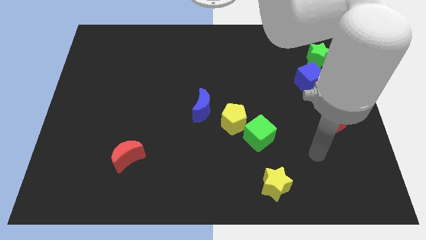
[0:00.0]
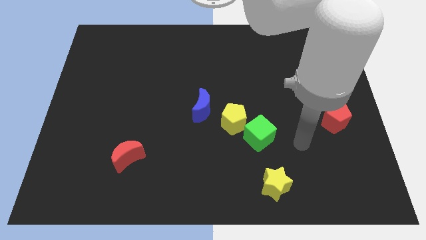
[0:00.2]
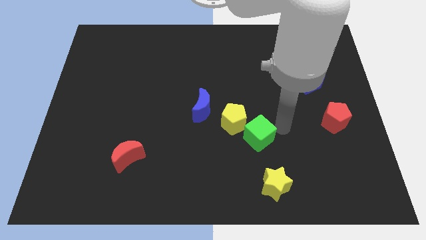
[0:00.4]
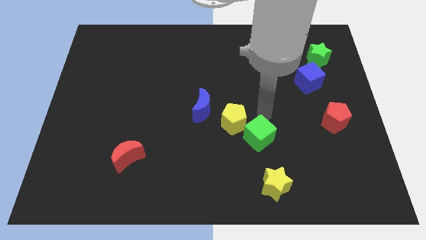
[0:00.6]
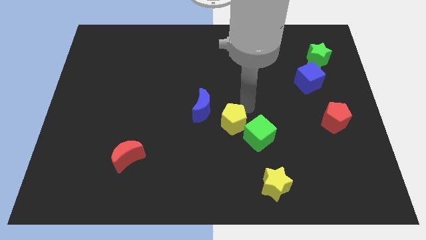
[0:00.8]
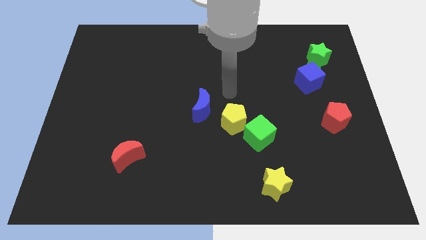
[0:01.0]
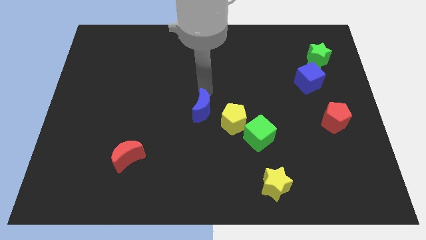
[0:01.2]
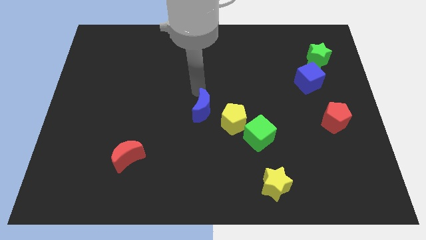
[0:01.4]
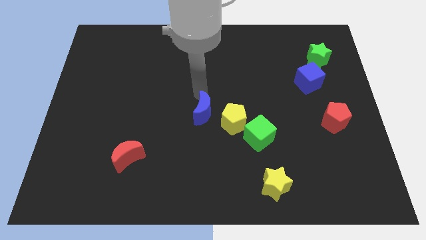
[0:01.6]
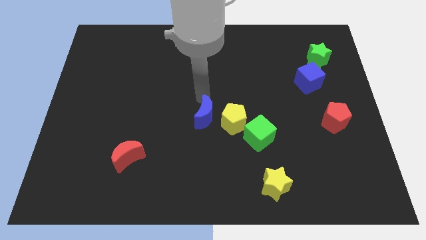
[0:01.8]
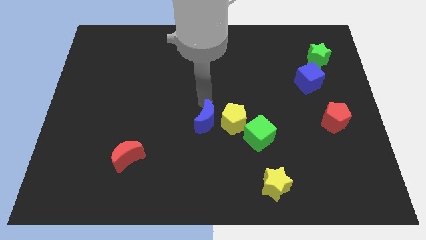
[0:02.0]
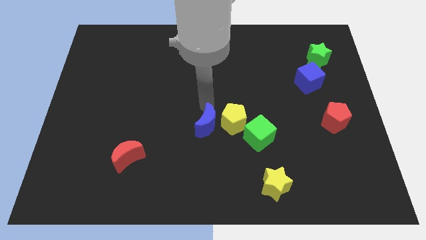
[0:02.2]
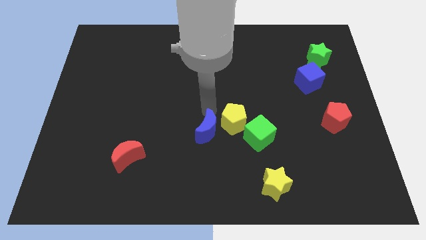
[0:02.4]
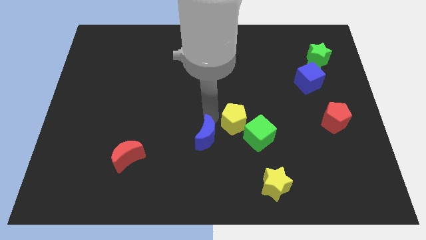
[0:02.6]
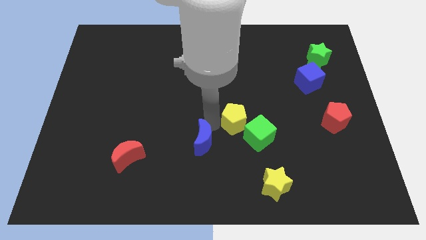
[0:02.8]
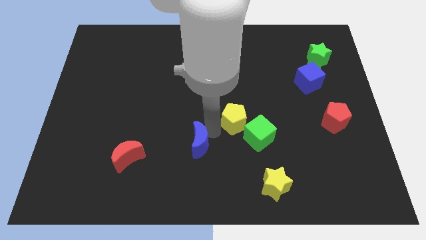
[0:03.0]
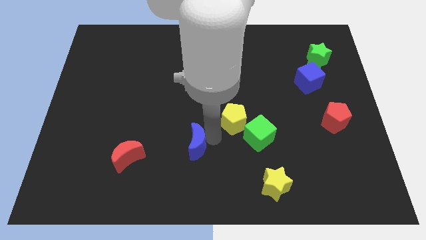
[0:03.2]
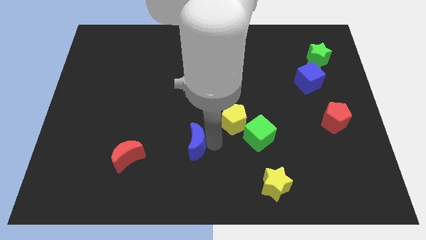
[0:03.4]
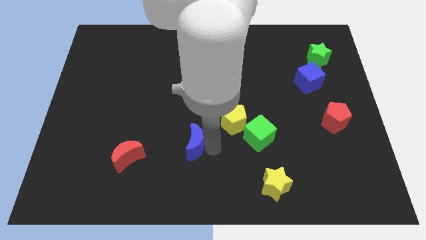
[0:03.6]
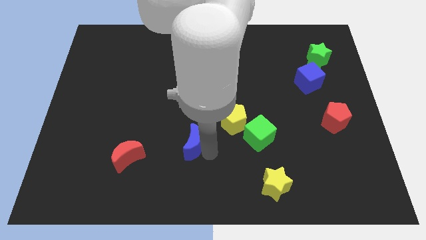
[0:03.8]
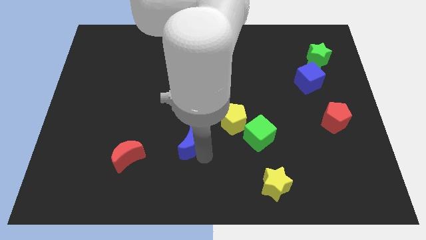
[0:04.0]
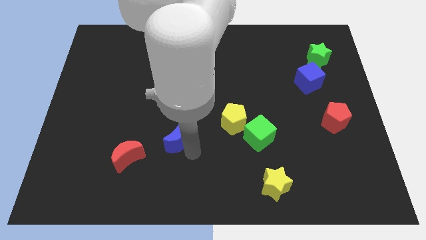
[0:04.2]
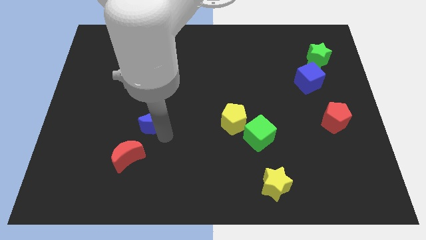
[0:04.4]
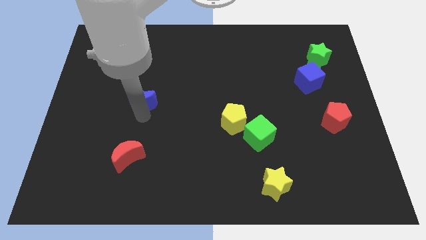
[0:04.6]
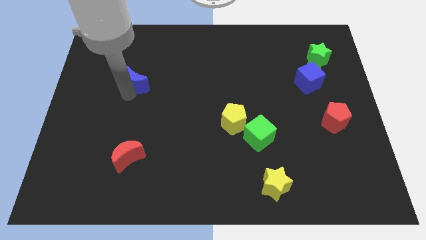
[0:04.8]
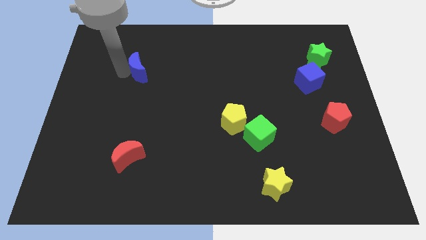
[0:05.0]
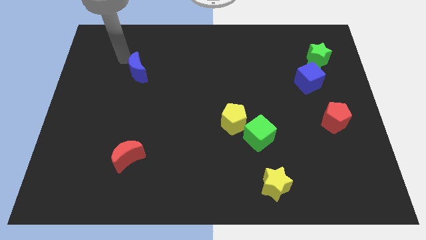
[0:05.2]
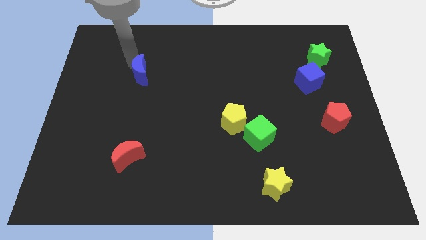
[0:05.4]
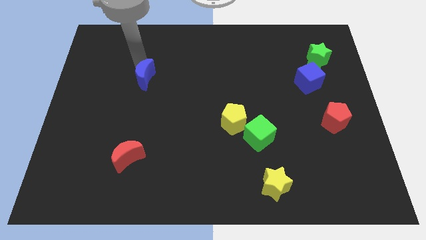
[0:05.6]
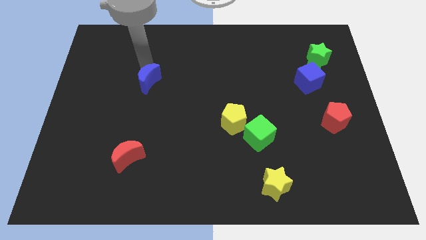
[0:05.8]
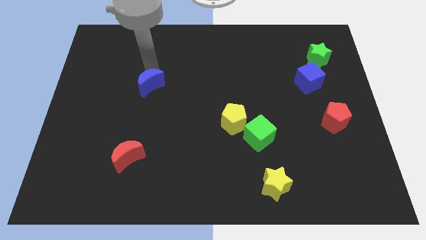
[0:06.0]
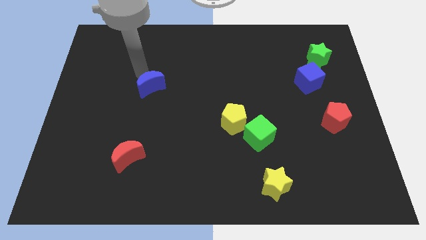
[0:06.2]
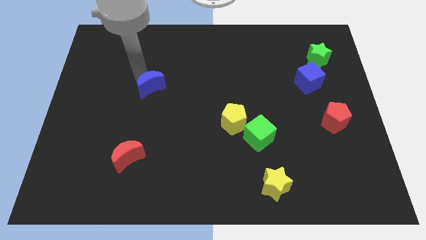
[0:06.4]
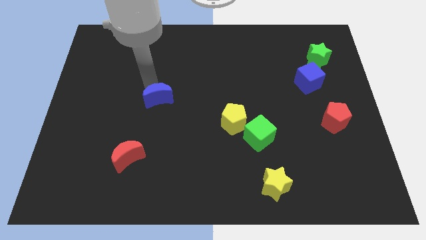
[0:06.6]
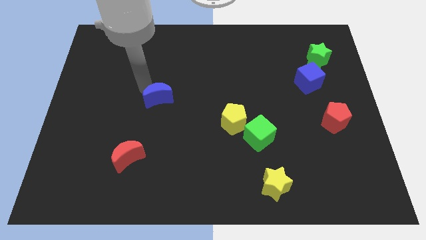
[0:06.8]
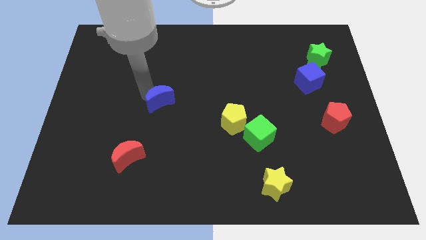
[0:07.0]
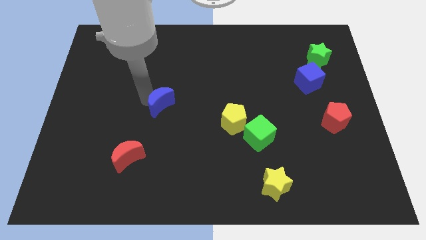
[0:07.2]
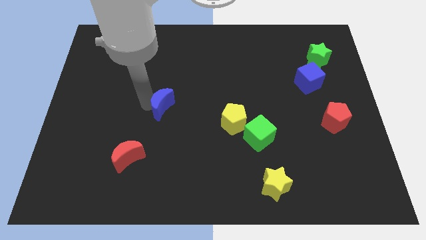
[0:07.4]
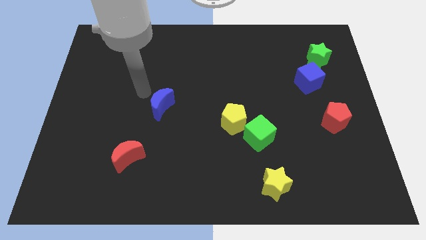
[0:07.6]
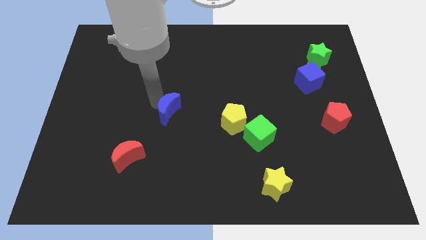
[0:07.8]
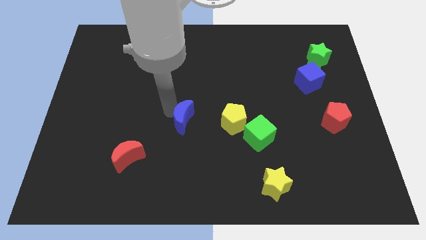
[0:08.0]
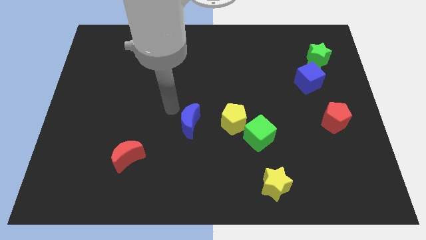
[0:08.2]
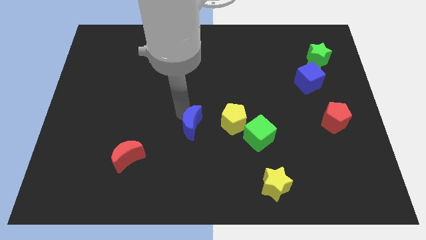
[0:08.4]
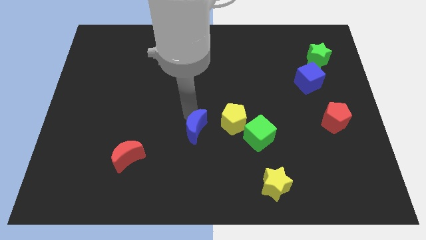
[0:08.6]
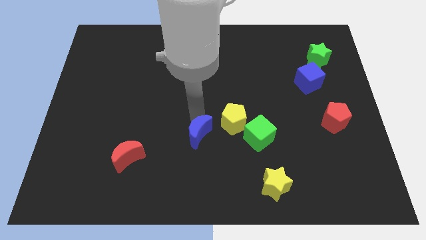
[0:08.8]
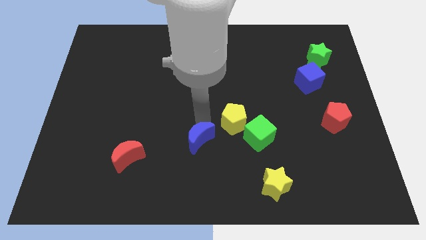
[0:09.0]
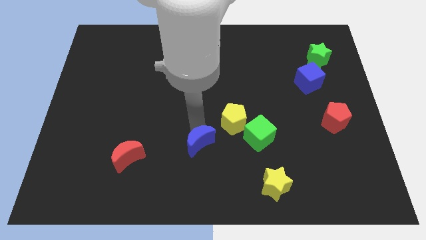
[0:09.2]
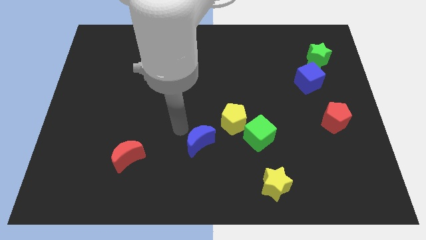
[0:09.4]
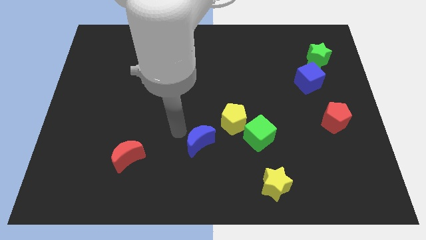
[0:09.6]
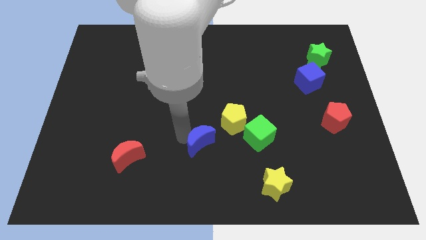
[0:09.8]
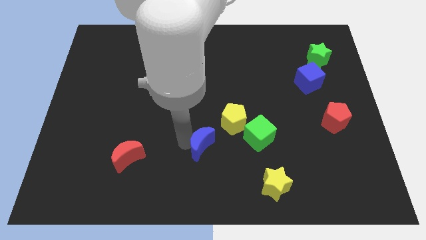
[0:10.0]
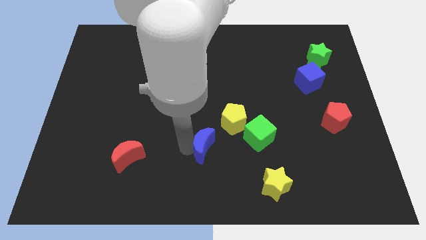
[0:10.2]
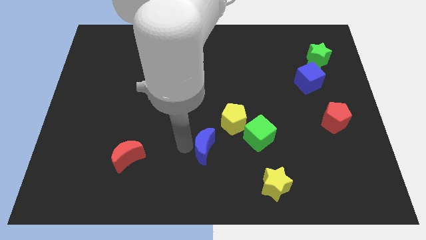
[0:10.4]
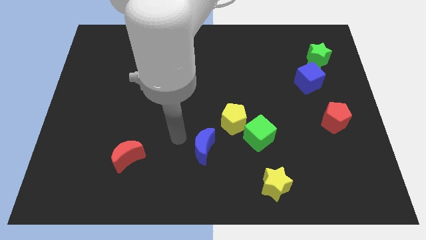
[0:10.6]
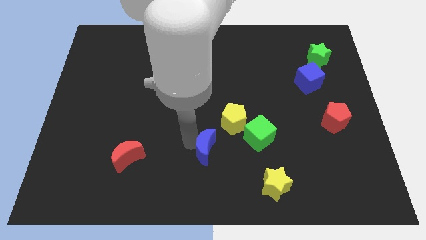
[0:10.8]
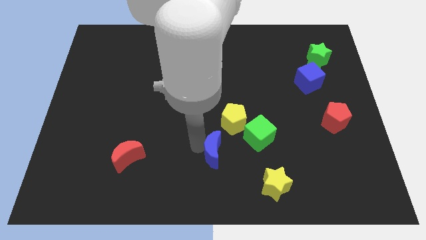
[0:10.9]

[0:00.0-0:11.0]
push the blue moon to the bottom side of the yellow pentagon

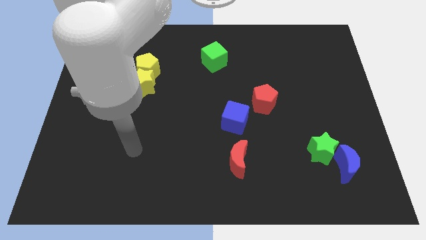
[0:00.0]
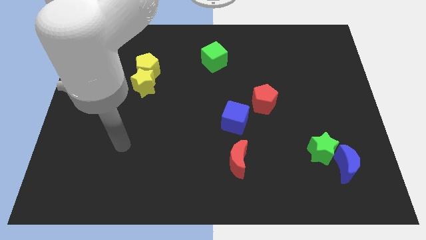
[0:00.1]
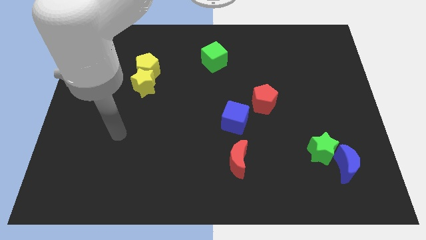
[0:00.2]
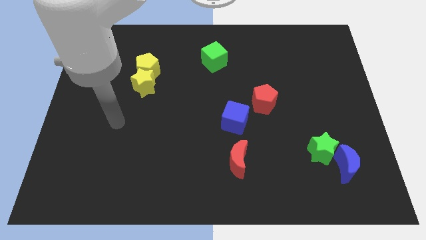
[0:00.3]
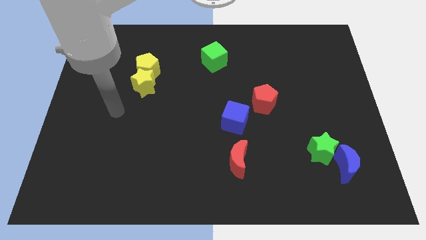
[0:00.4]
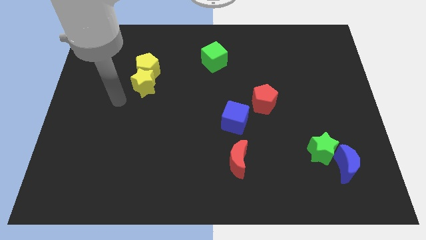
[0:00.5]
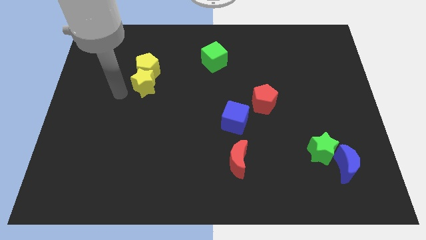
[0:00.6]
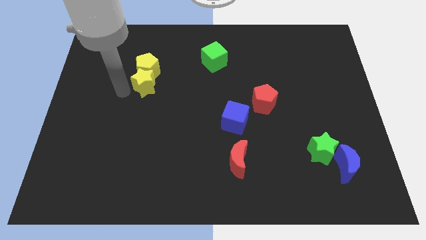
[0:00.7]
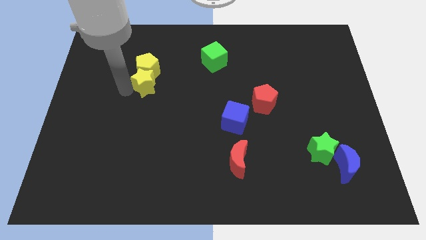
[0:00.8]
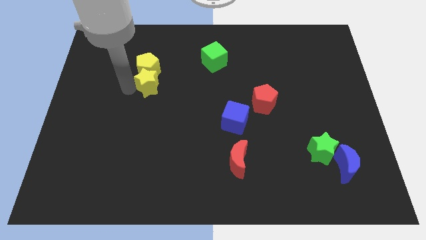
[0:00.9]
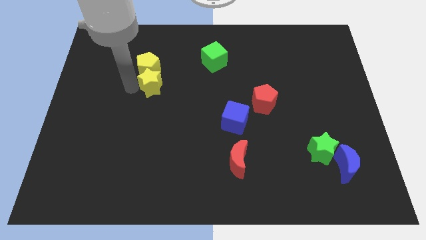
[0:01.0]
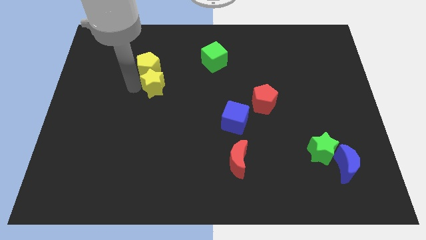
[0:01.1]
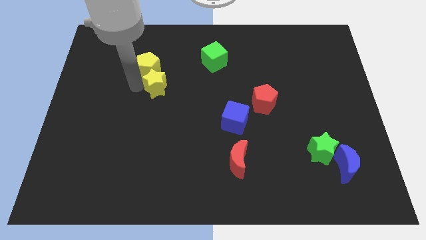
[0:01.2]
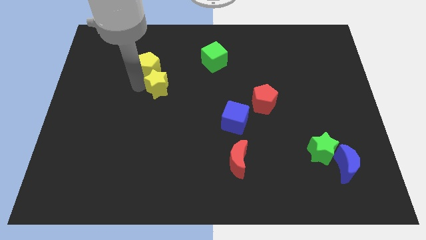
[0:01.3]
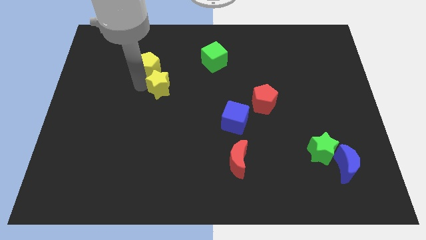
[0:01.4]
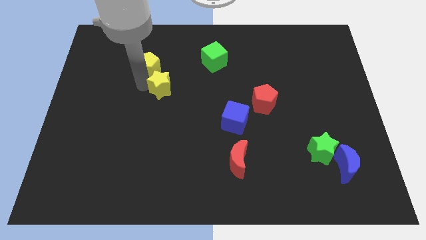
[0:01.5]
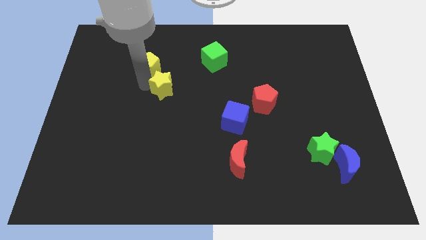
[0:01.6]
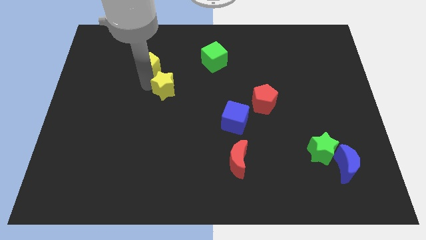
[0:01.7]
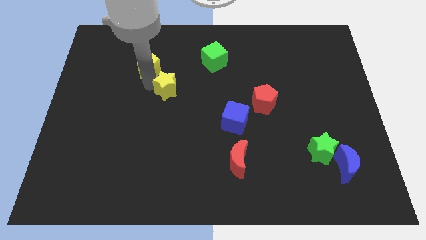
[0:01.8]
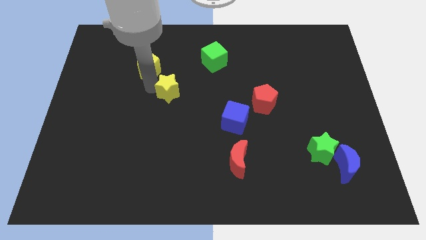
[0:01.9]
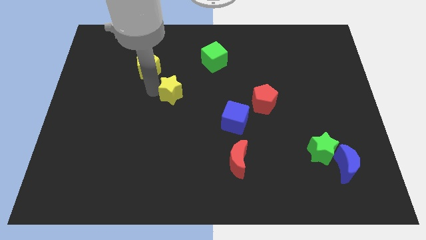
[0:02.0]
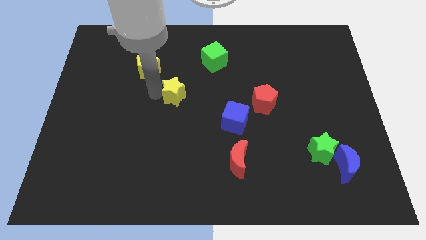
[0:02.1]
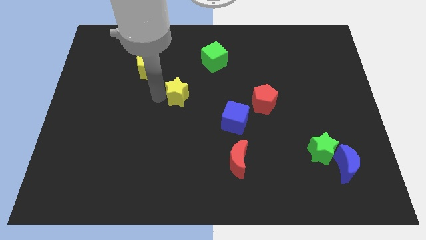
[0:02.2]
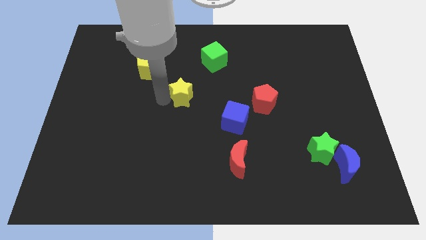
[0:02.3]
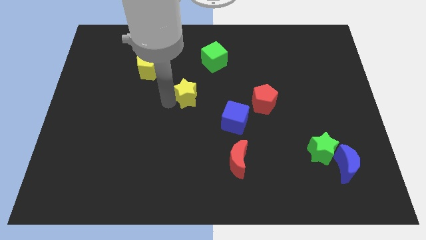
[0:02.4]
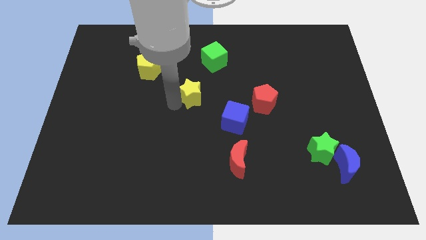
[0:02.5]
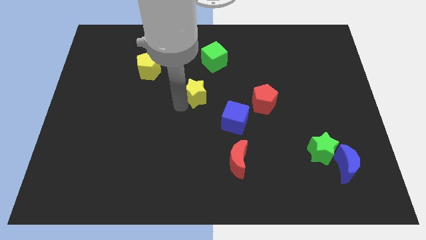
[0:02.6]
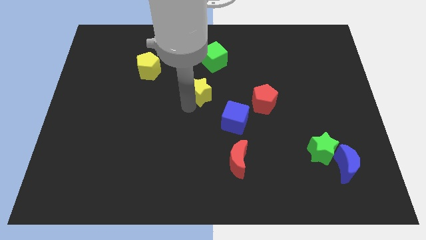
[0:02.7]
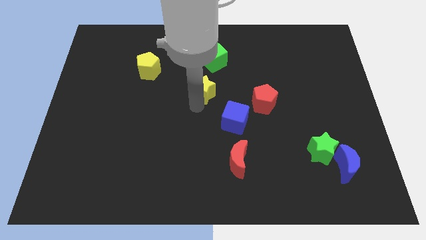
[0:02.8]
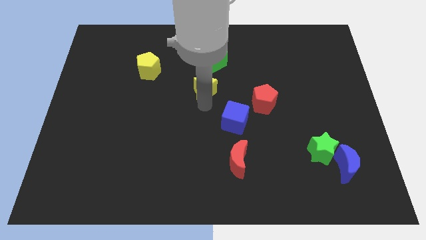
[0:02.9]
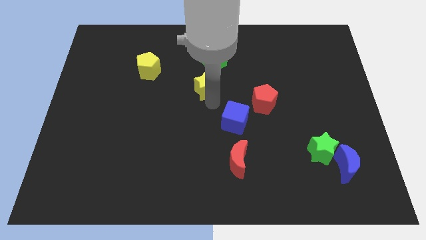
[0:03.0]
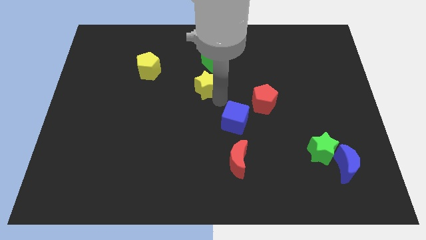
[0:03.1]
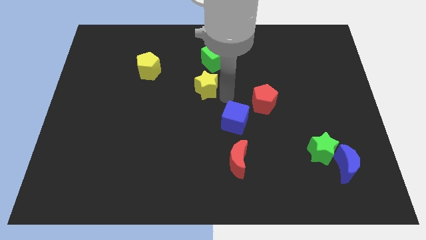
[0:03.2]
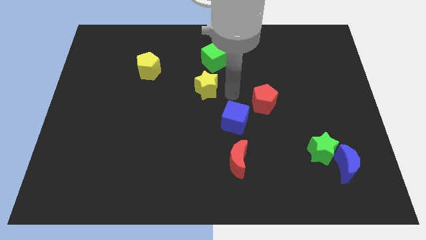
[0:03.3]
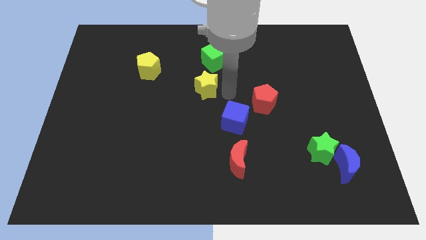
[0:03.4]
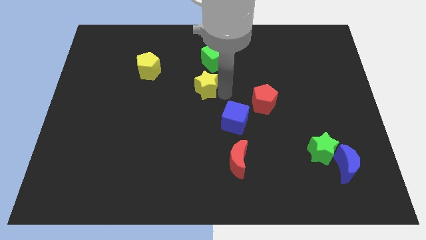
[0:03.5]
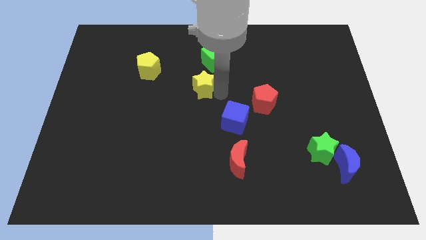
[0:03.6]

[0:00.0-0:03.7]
slide the yellow star to the bottom left side of the green cube
